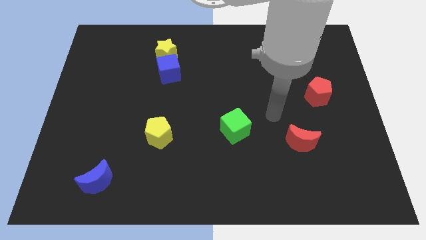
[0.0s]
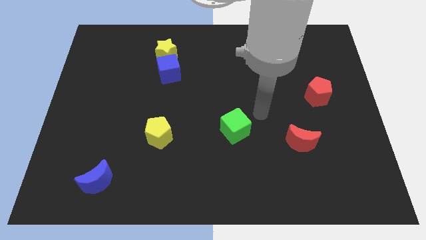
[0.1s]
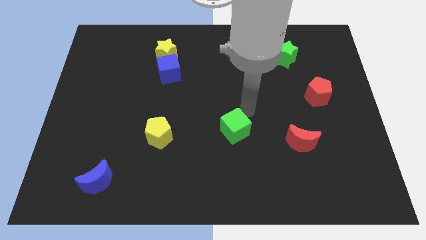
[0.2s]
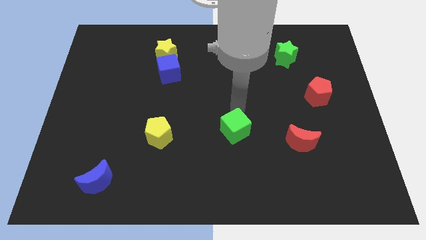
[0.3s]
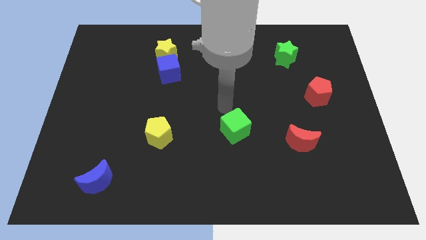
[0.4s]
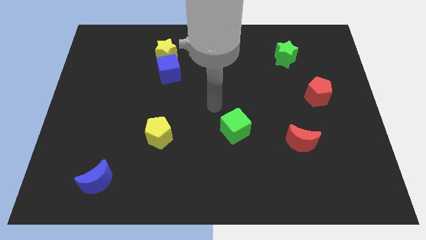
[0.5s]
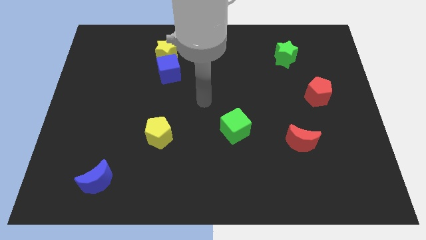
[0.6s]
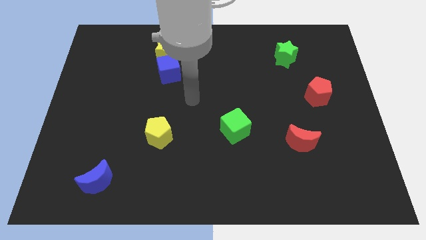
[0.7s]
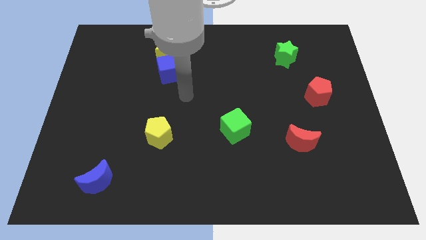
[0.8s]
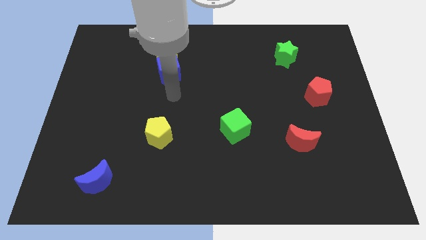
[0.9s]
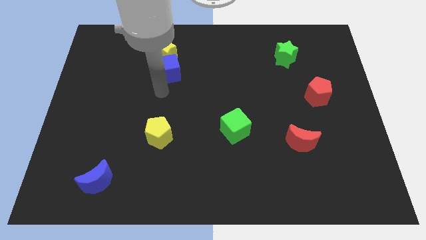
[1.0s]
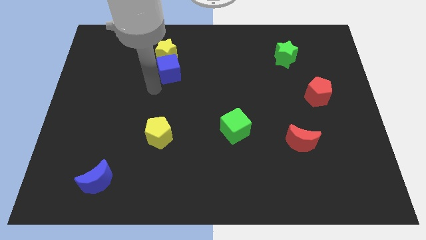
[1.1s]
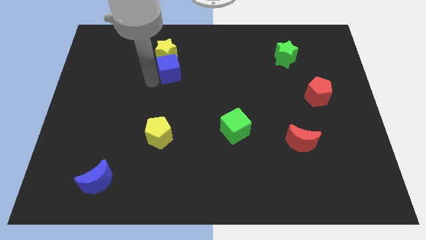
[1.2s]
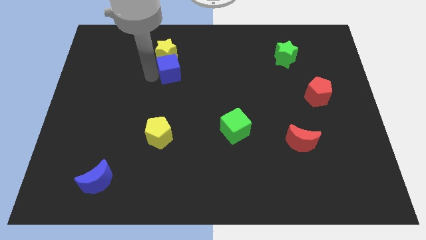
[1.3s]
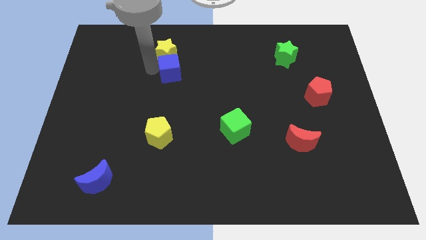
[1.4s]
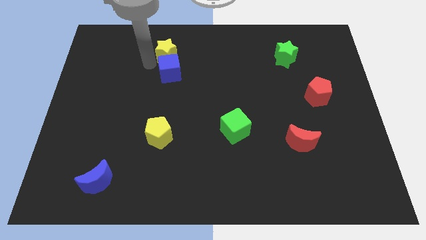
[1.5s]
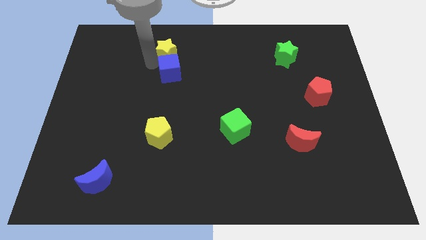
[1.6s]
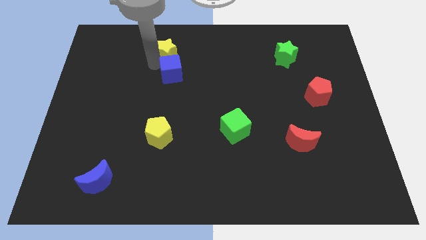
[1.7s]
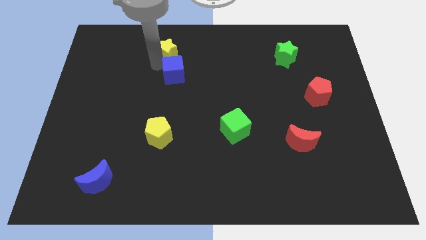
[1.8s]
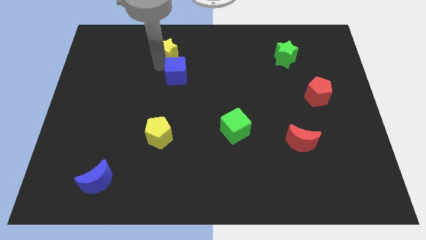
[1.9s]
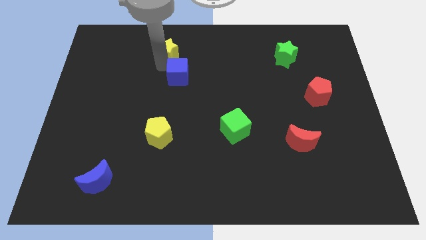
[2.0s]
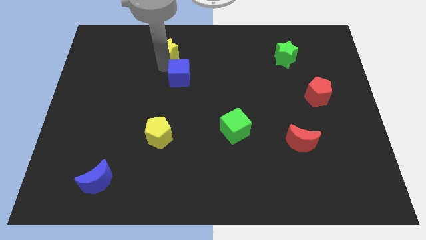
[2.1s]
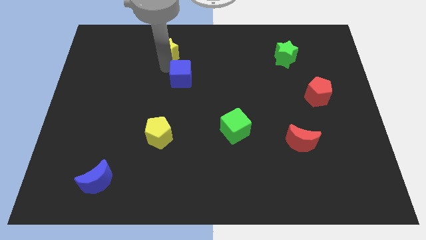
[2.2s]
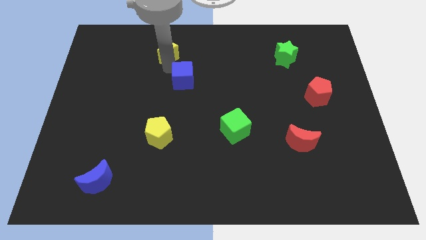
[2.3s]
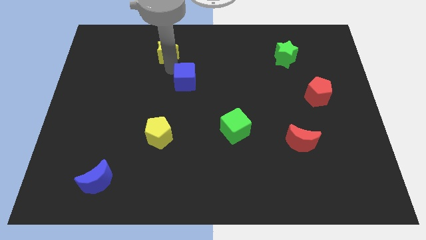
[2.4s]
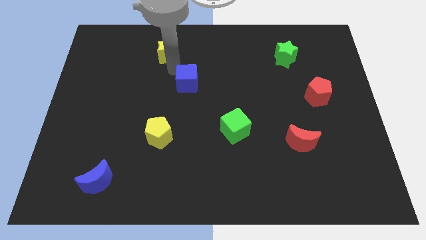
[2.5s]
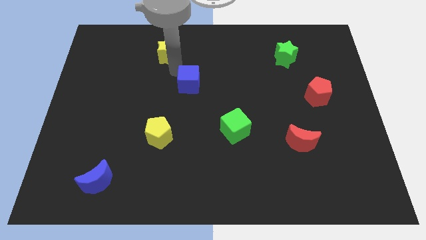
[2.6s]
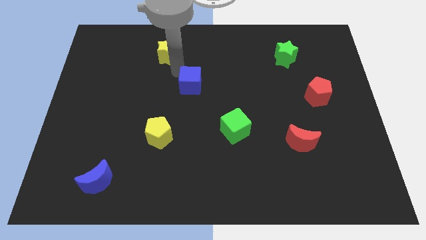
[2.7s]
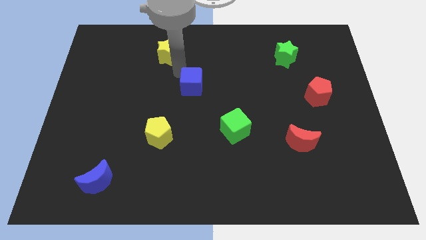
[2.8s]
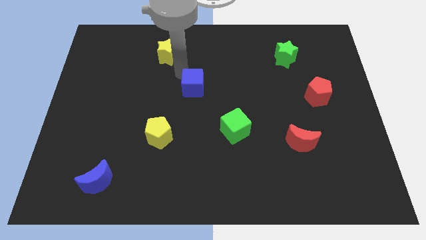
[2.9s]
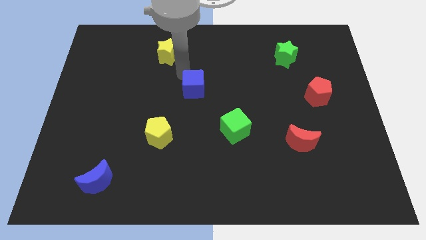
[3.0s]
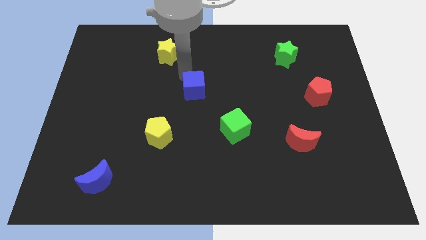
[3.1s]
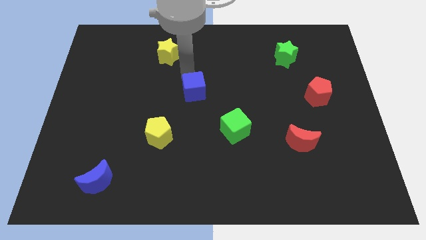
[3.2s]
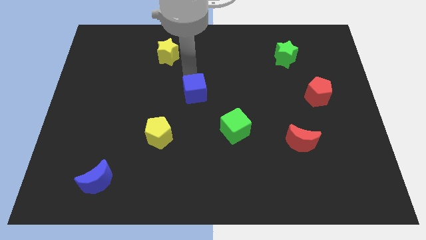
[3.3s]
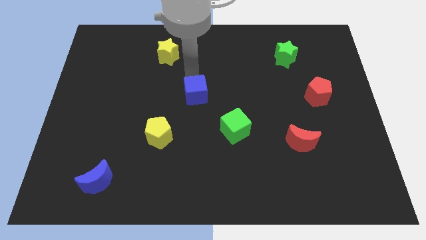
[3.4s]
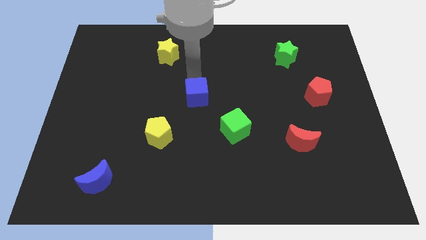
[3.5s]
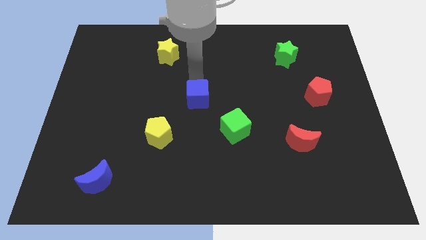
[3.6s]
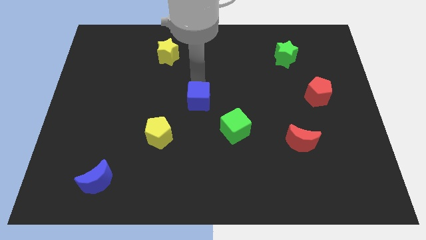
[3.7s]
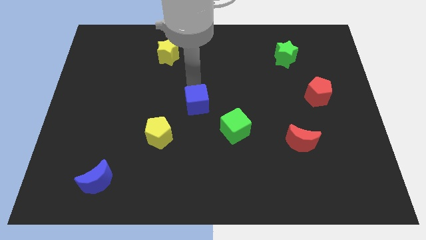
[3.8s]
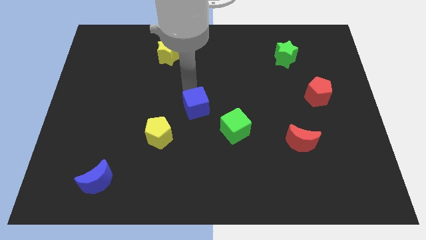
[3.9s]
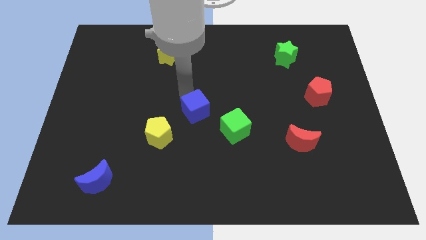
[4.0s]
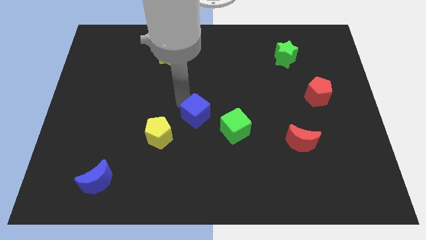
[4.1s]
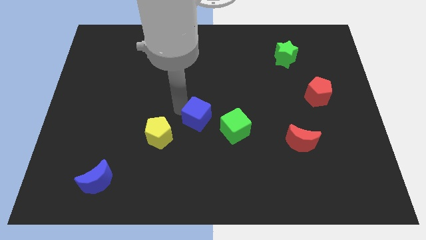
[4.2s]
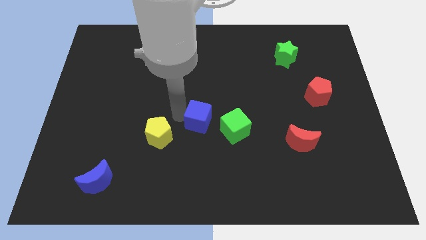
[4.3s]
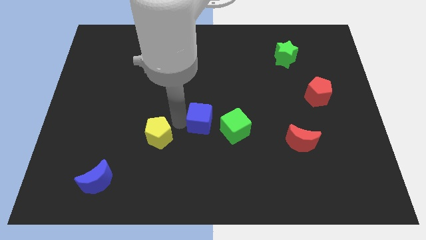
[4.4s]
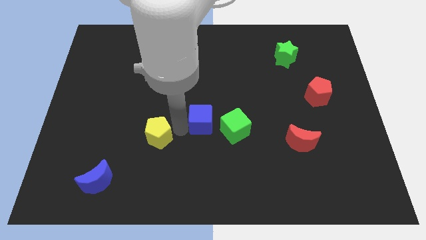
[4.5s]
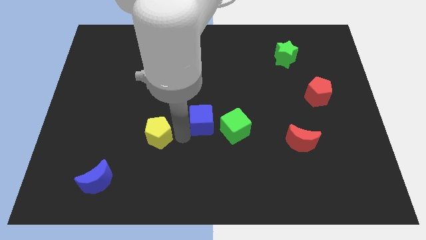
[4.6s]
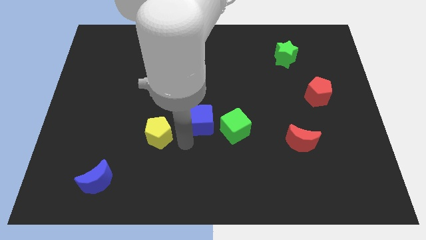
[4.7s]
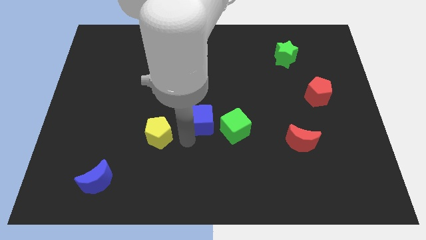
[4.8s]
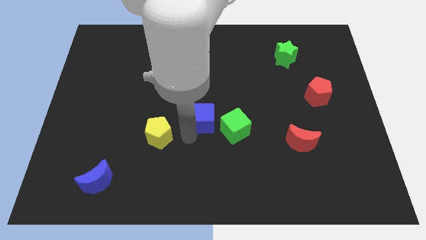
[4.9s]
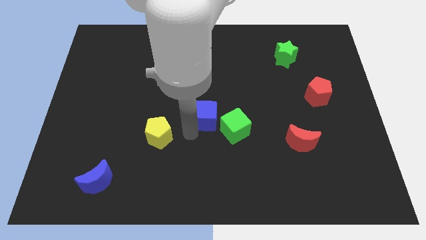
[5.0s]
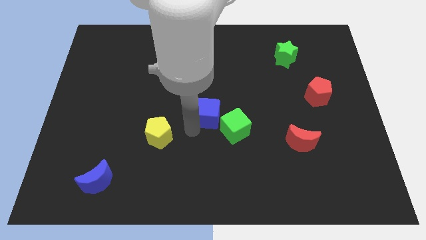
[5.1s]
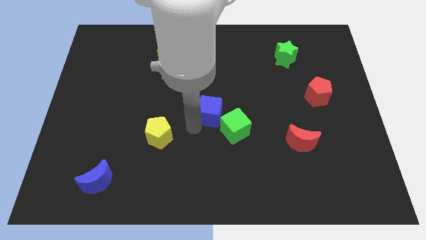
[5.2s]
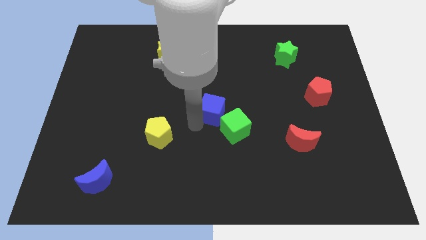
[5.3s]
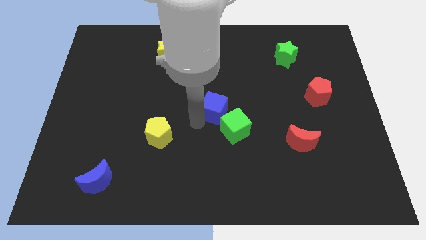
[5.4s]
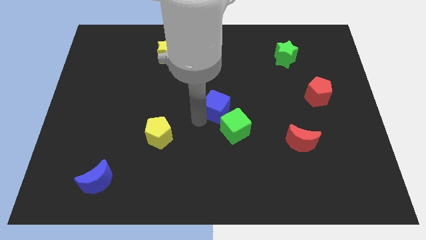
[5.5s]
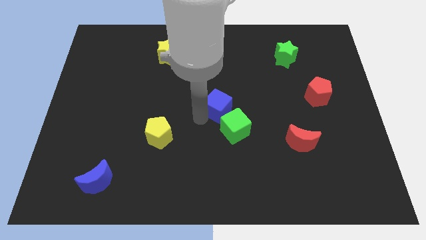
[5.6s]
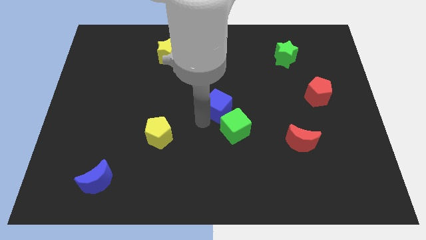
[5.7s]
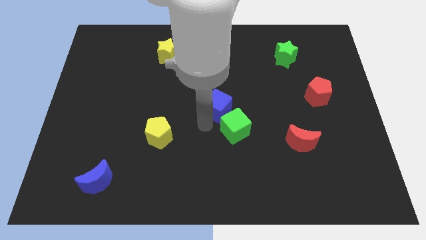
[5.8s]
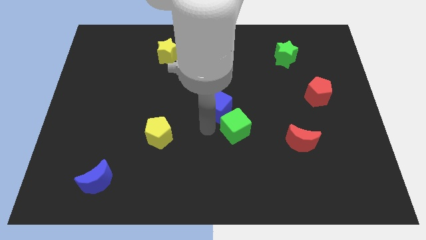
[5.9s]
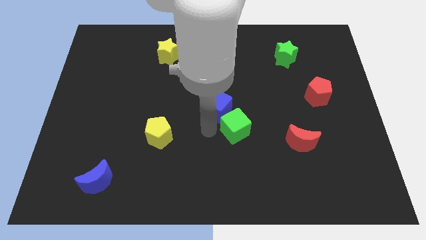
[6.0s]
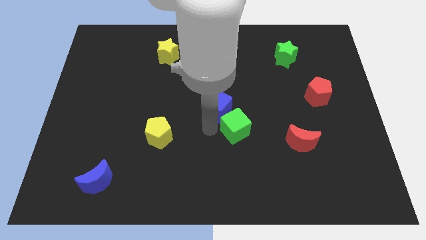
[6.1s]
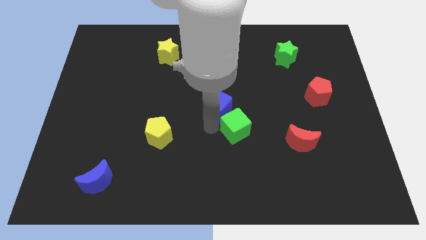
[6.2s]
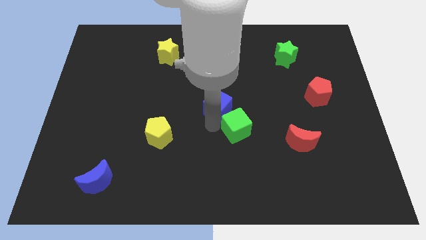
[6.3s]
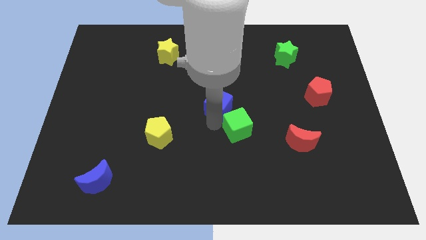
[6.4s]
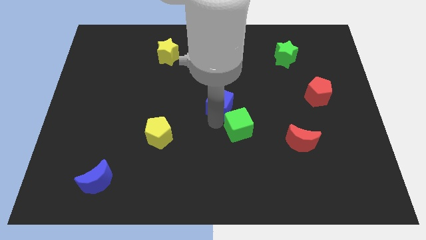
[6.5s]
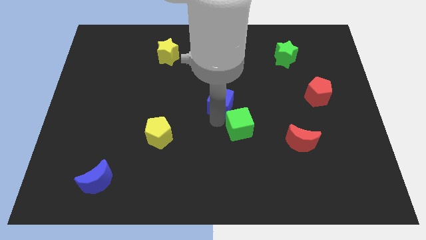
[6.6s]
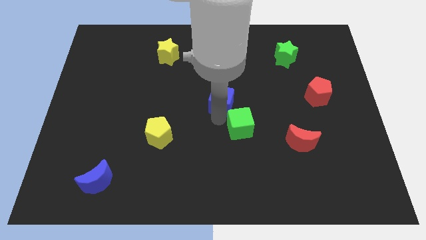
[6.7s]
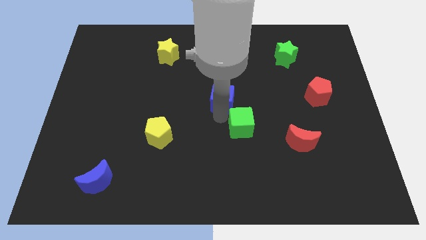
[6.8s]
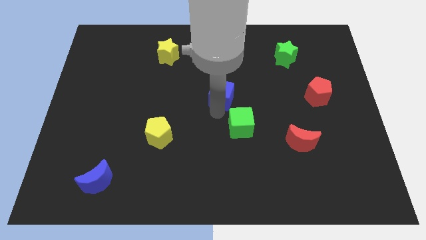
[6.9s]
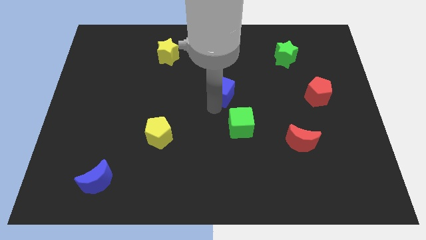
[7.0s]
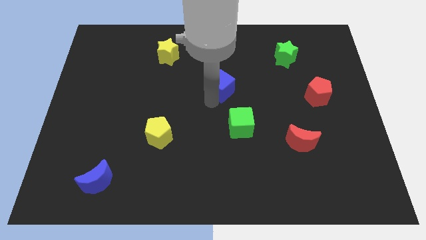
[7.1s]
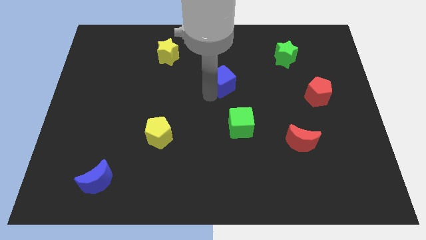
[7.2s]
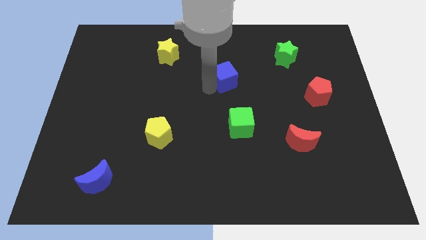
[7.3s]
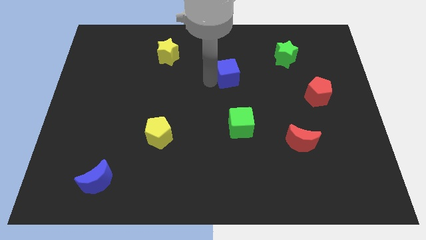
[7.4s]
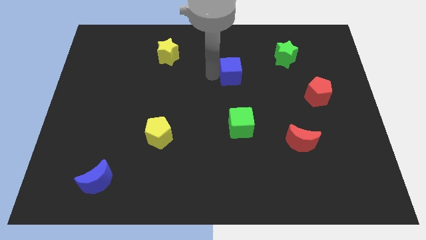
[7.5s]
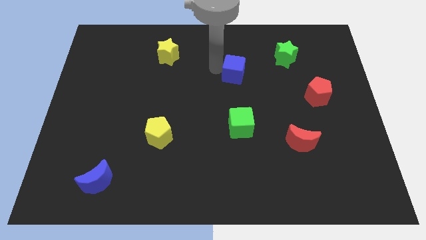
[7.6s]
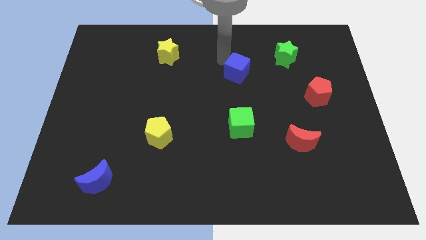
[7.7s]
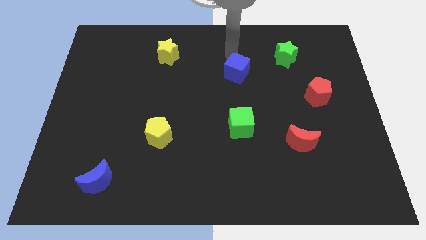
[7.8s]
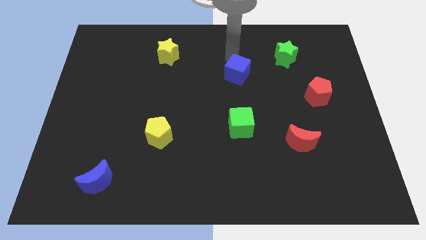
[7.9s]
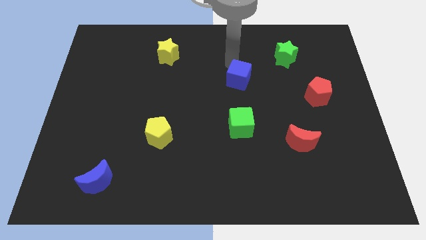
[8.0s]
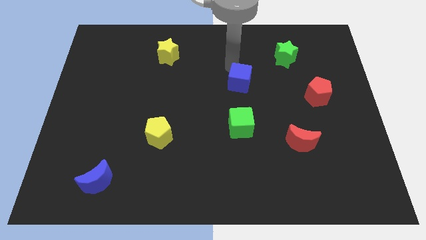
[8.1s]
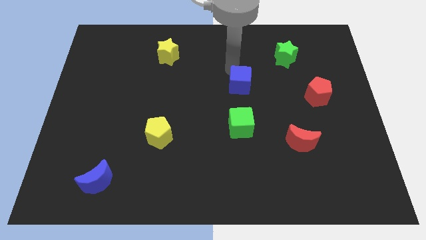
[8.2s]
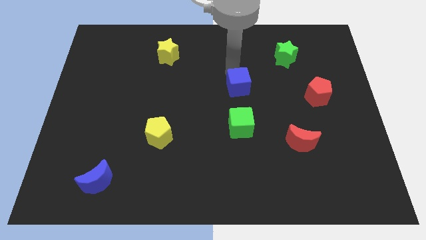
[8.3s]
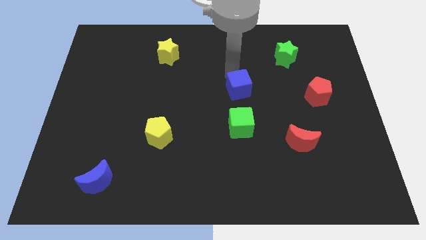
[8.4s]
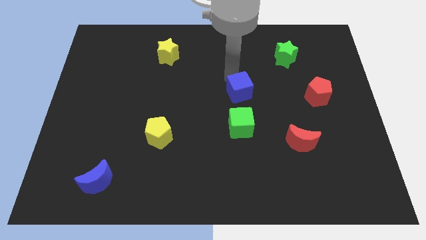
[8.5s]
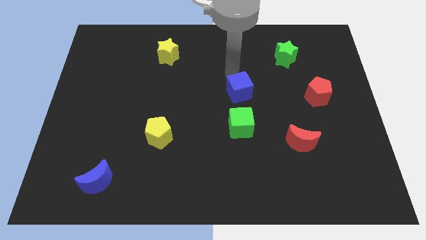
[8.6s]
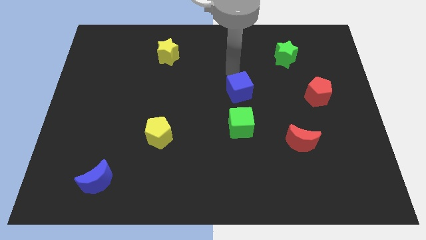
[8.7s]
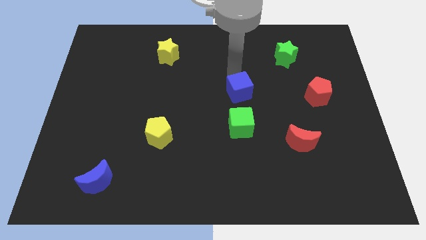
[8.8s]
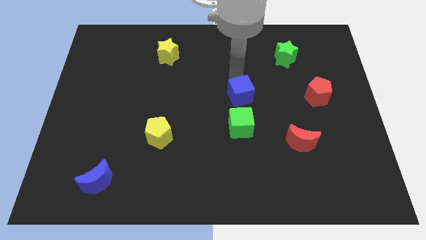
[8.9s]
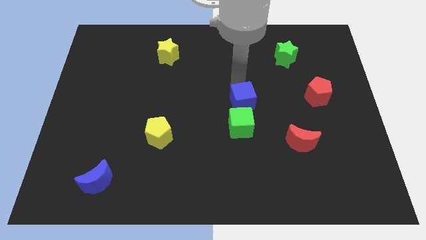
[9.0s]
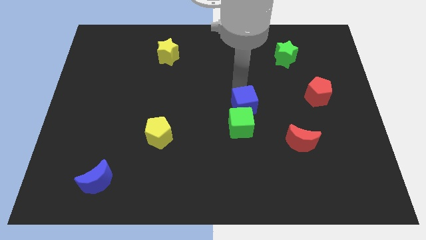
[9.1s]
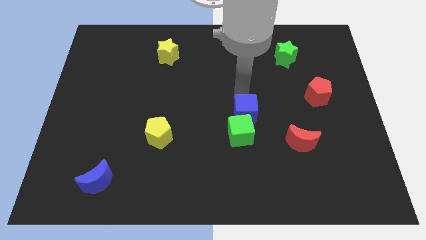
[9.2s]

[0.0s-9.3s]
push the blue cube downwards and then right
